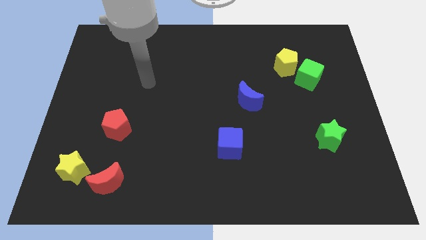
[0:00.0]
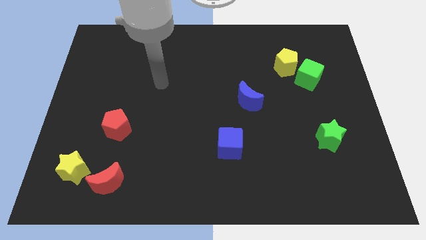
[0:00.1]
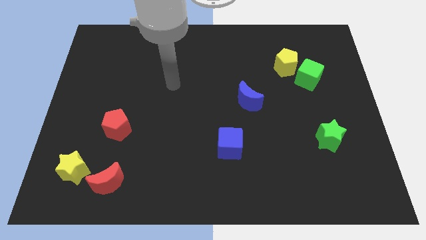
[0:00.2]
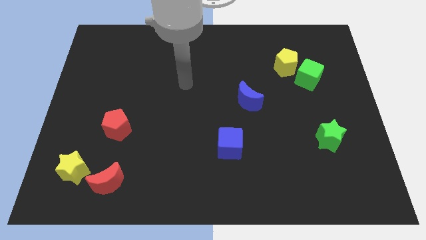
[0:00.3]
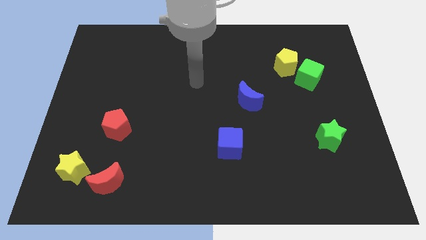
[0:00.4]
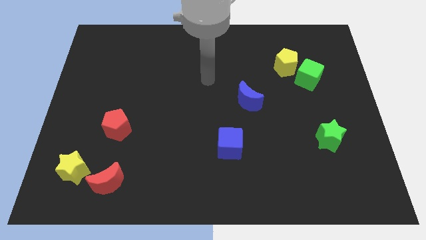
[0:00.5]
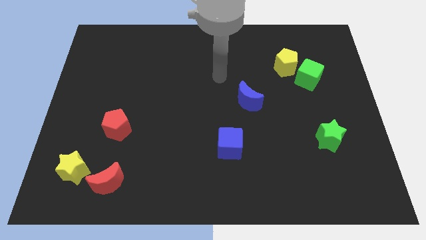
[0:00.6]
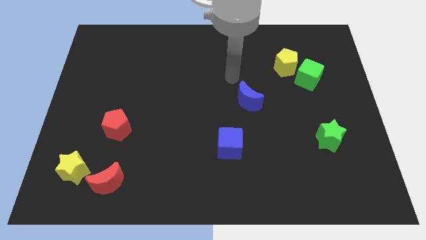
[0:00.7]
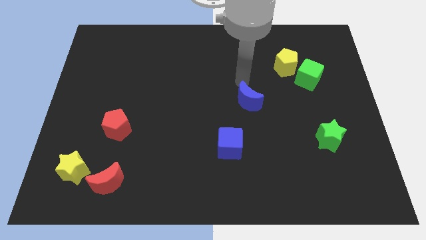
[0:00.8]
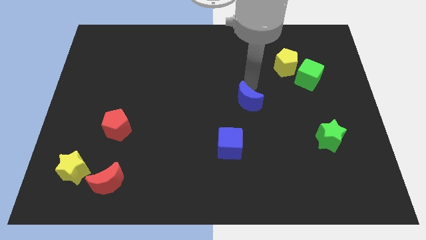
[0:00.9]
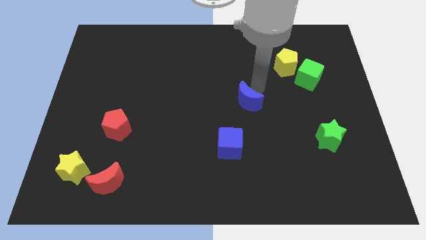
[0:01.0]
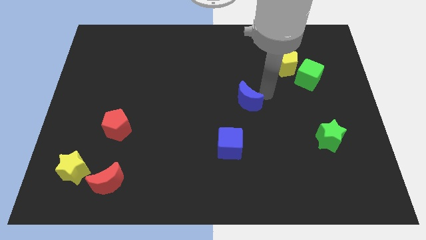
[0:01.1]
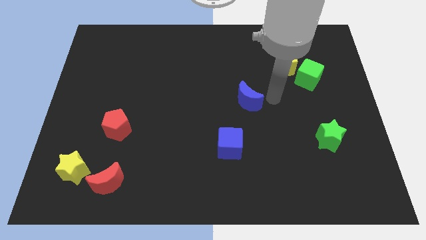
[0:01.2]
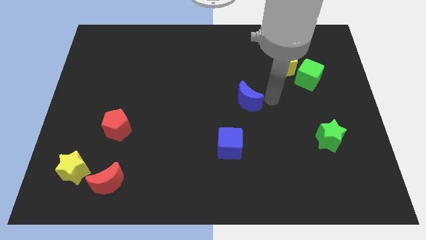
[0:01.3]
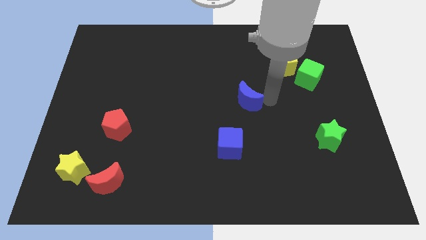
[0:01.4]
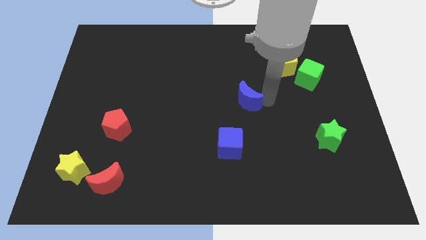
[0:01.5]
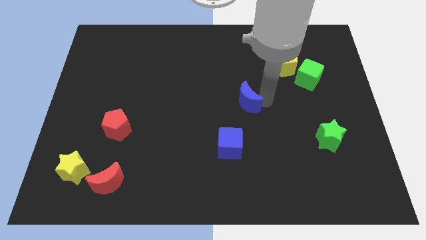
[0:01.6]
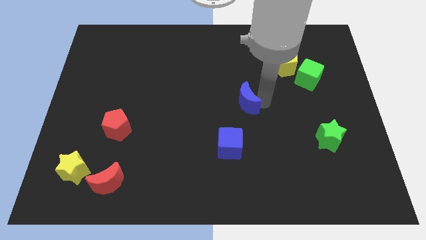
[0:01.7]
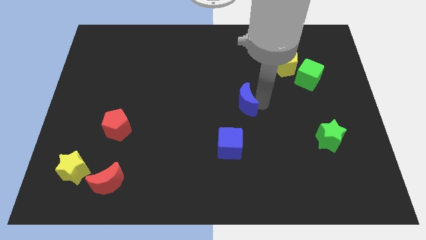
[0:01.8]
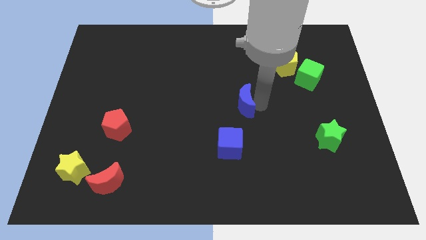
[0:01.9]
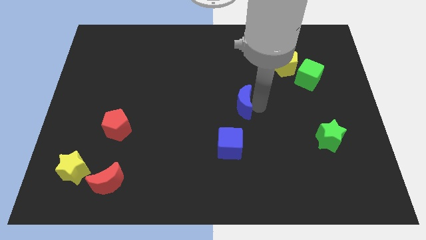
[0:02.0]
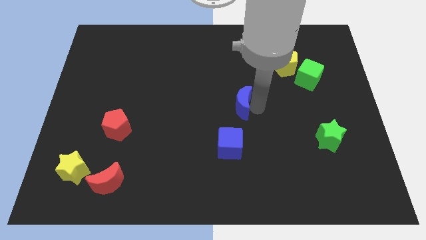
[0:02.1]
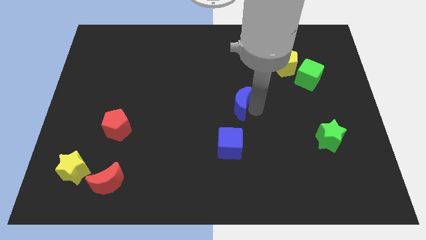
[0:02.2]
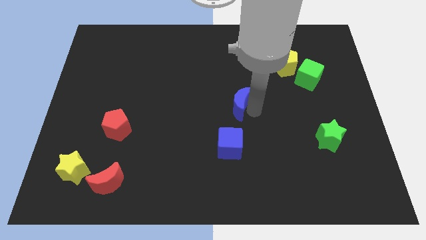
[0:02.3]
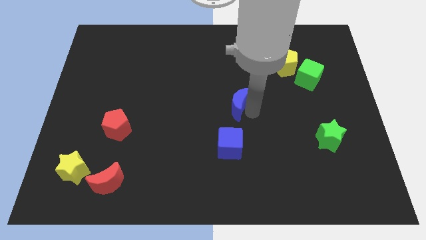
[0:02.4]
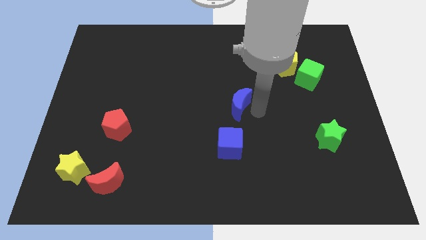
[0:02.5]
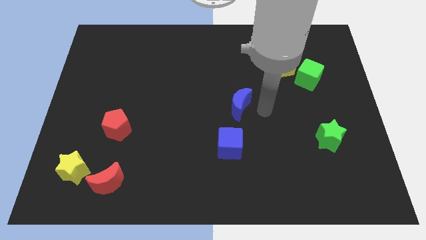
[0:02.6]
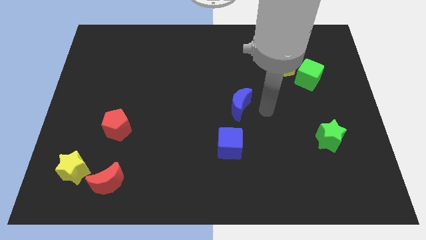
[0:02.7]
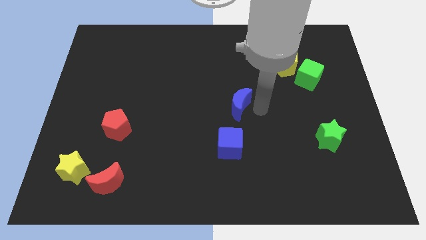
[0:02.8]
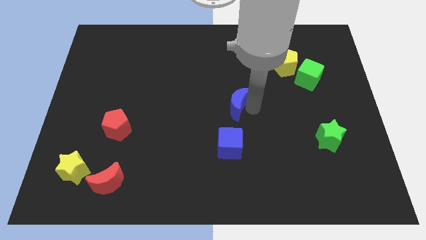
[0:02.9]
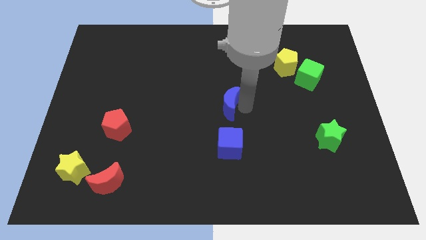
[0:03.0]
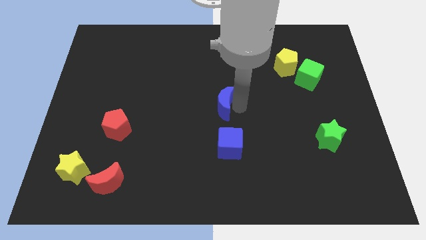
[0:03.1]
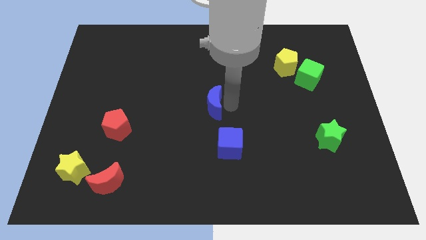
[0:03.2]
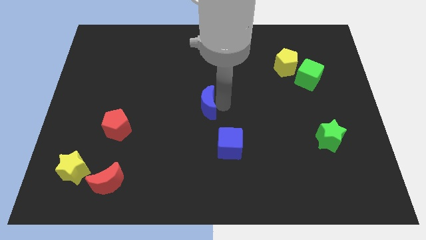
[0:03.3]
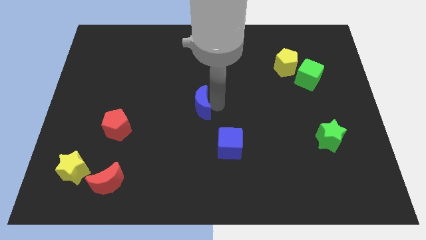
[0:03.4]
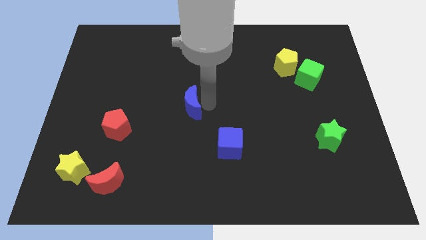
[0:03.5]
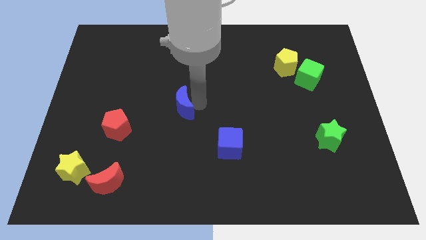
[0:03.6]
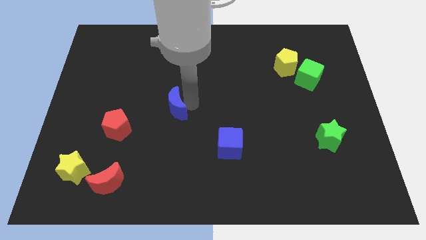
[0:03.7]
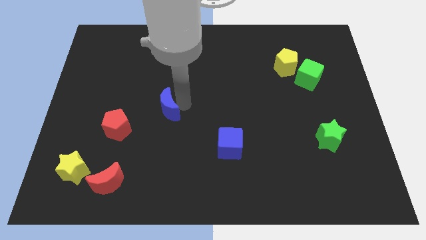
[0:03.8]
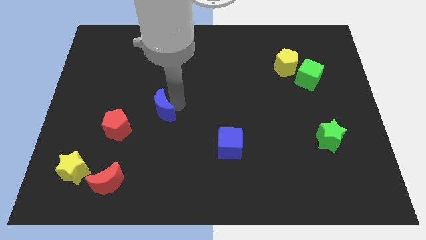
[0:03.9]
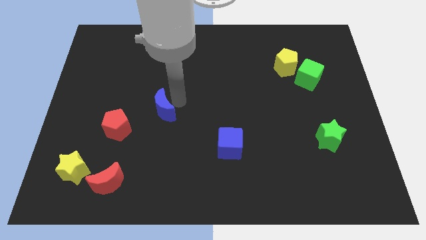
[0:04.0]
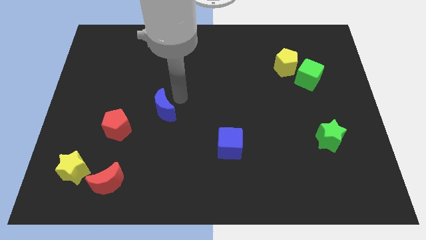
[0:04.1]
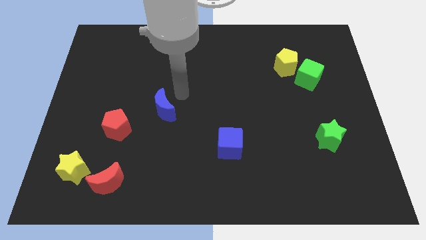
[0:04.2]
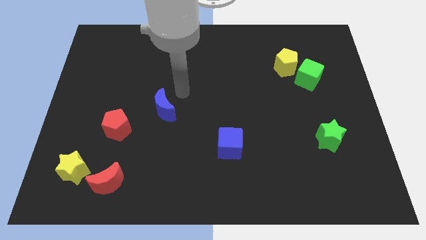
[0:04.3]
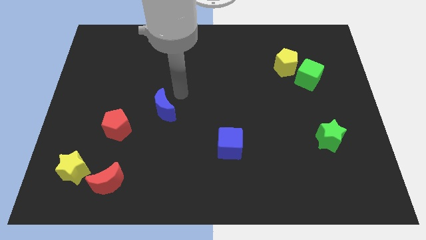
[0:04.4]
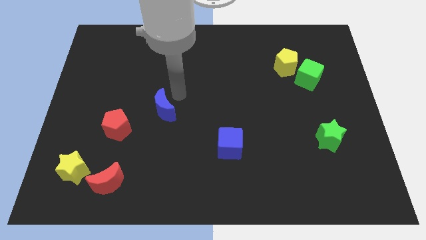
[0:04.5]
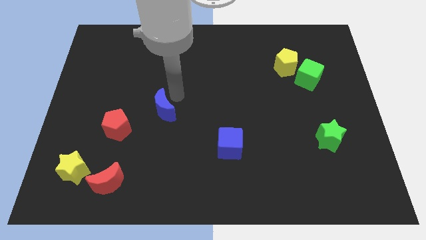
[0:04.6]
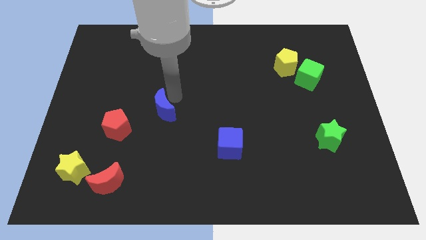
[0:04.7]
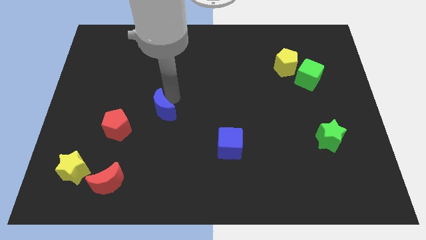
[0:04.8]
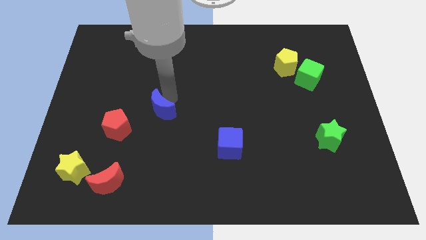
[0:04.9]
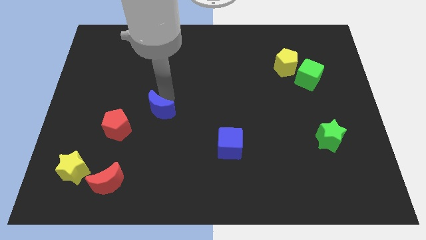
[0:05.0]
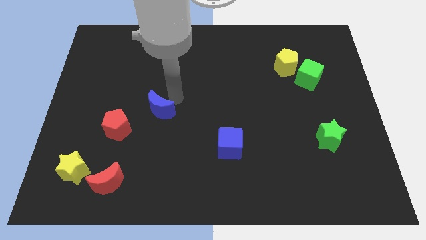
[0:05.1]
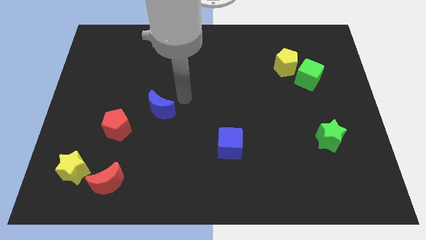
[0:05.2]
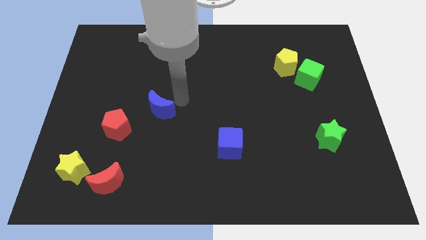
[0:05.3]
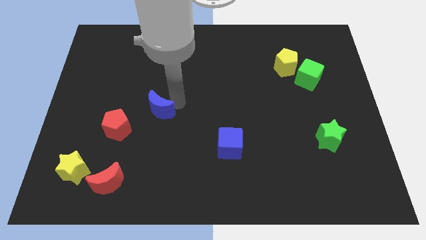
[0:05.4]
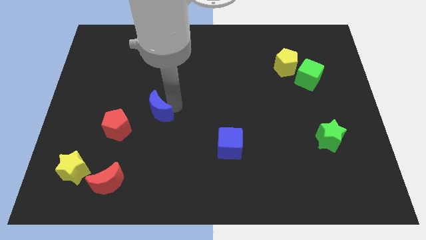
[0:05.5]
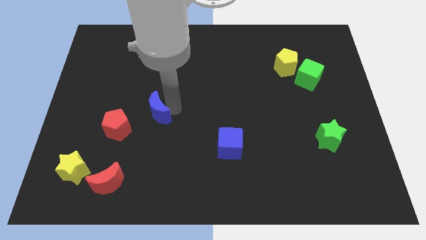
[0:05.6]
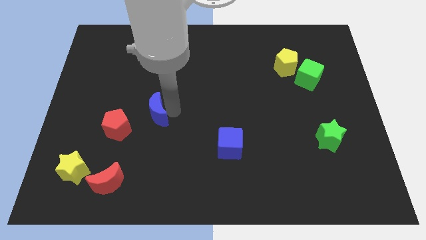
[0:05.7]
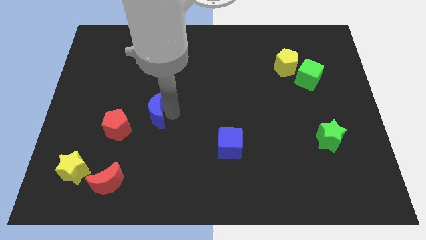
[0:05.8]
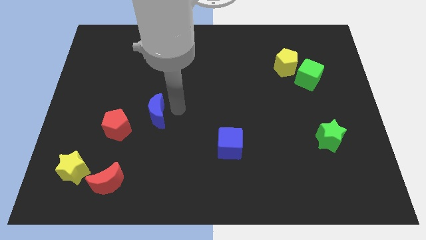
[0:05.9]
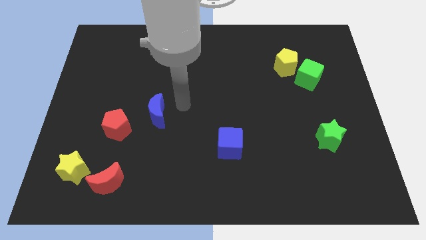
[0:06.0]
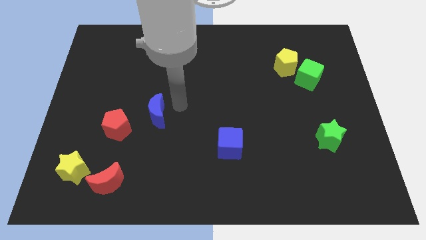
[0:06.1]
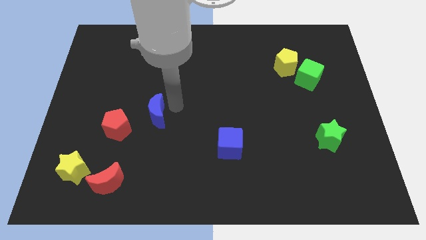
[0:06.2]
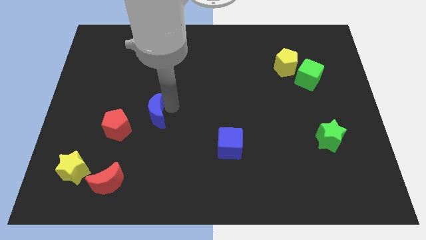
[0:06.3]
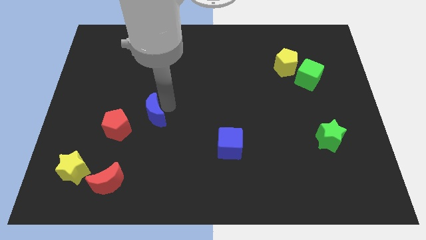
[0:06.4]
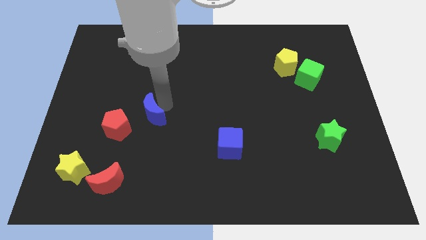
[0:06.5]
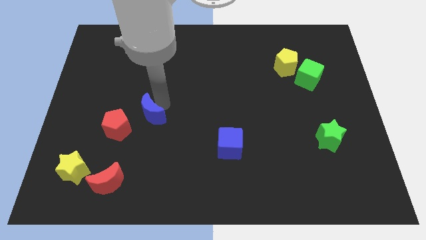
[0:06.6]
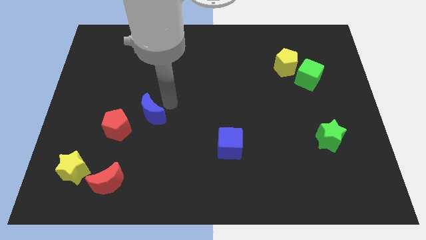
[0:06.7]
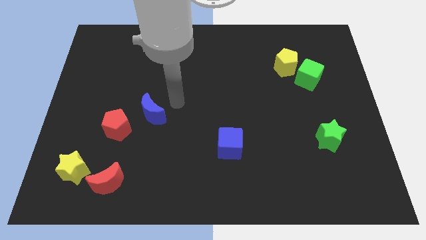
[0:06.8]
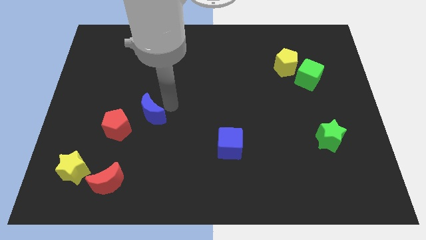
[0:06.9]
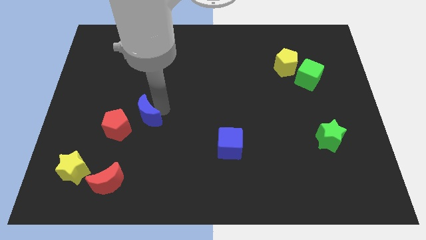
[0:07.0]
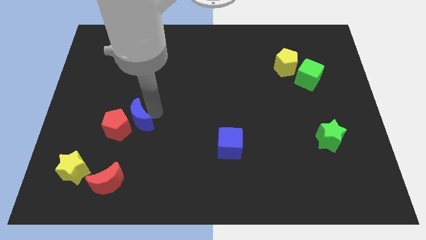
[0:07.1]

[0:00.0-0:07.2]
push the blue moon to the red pentagon
